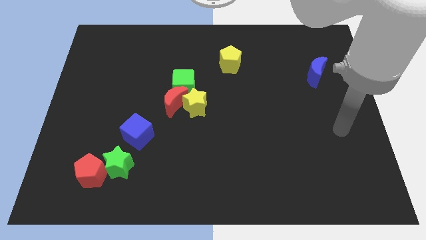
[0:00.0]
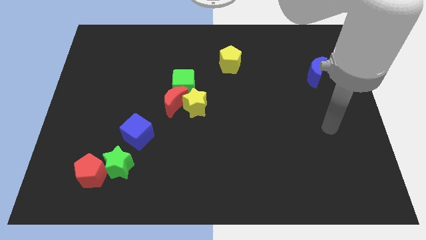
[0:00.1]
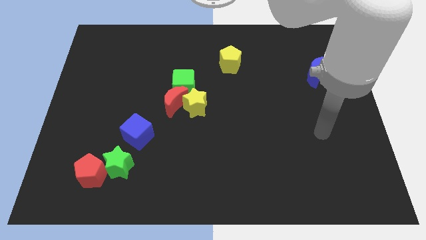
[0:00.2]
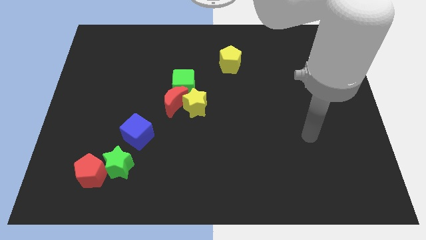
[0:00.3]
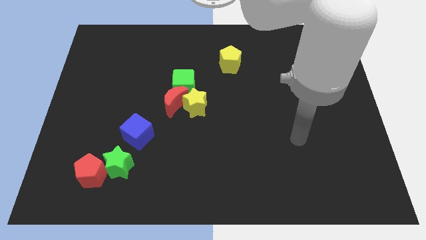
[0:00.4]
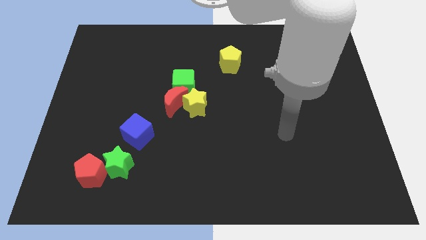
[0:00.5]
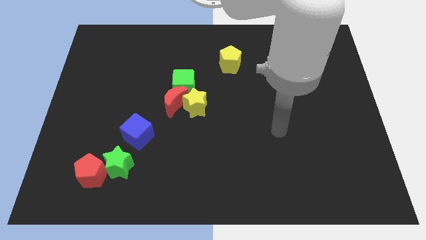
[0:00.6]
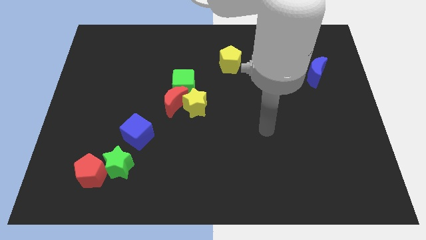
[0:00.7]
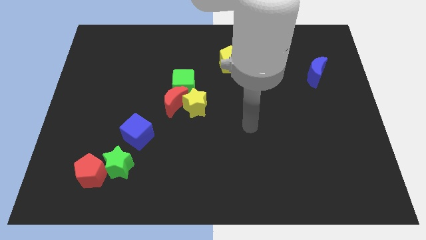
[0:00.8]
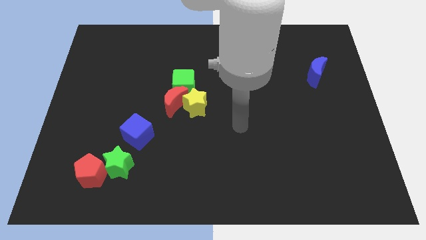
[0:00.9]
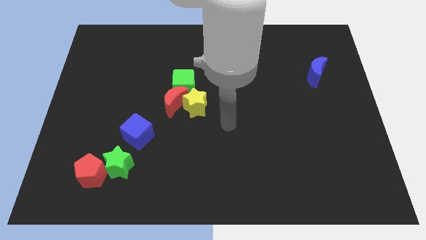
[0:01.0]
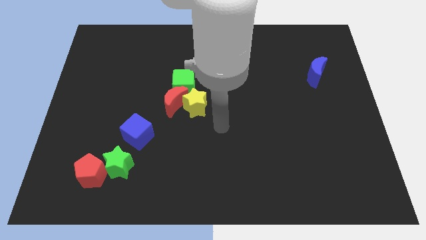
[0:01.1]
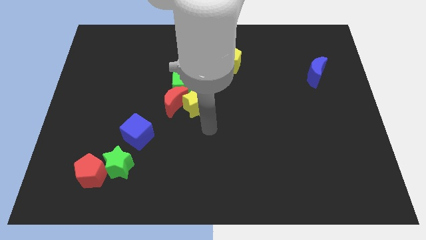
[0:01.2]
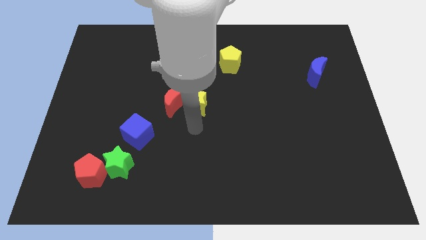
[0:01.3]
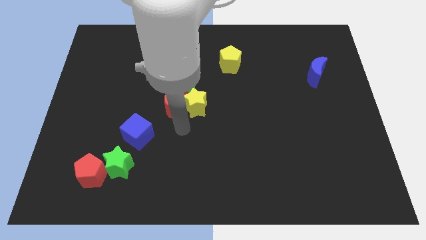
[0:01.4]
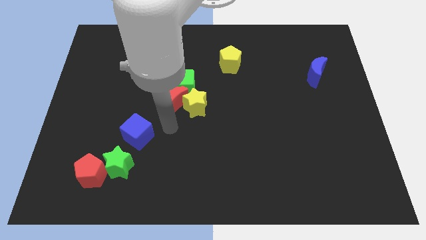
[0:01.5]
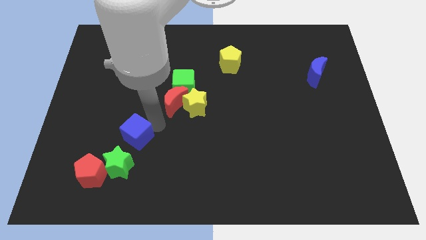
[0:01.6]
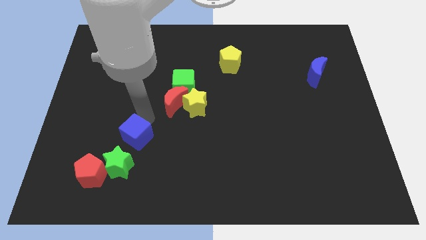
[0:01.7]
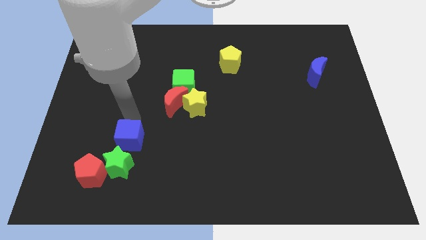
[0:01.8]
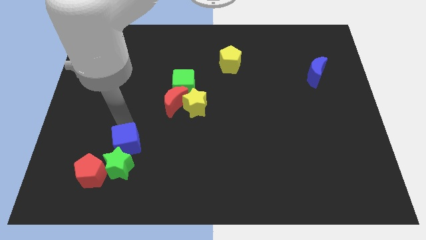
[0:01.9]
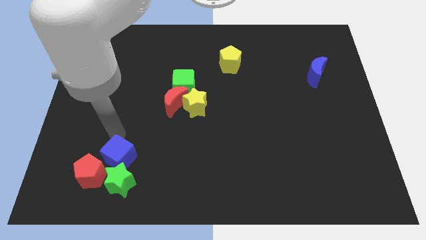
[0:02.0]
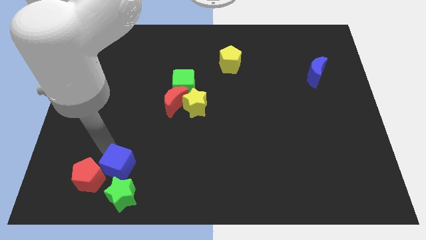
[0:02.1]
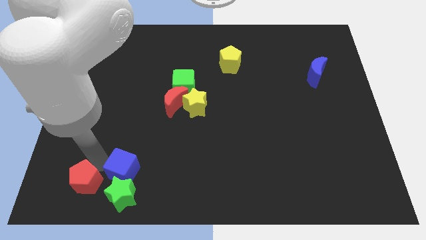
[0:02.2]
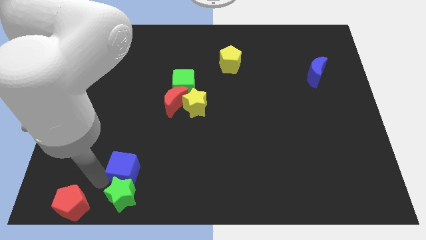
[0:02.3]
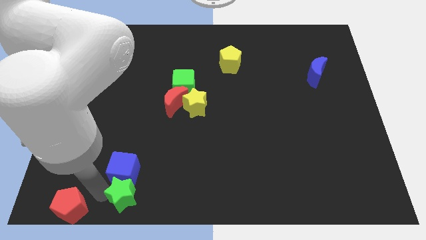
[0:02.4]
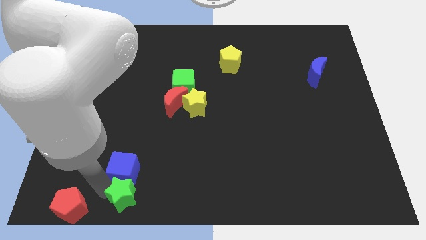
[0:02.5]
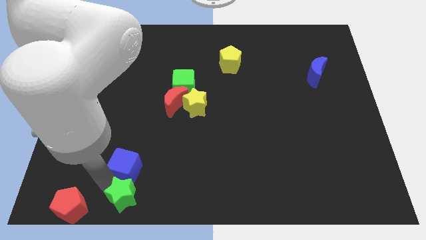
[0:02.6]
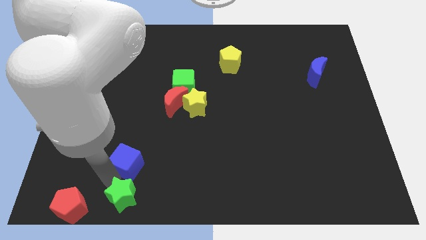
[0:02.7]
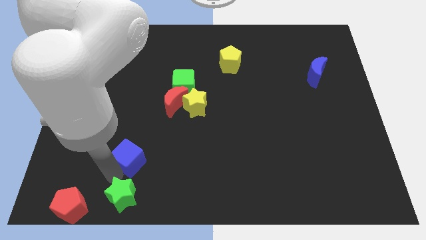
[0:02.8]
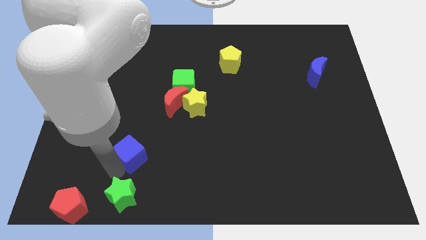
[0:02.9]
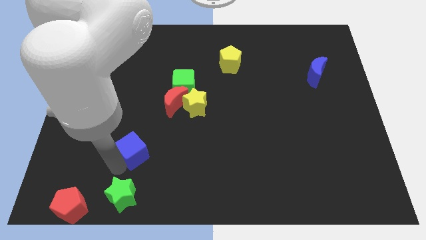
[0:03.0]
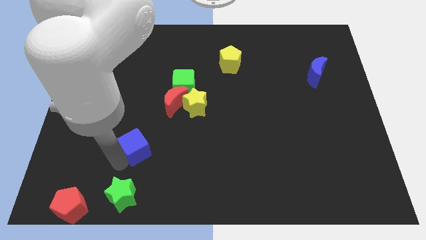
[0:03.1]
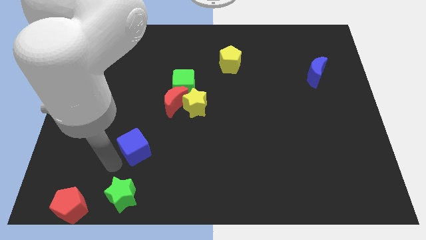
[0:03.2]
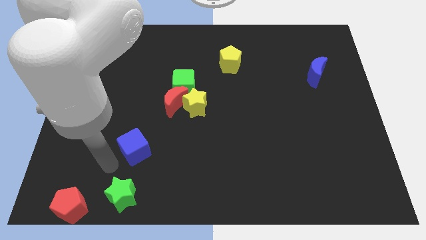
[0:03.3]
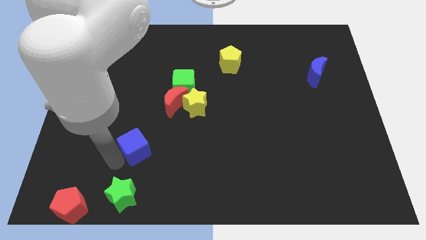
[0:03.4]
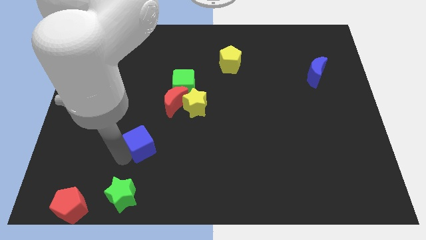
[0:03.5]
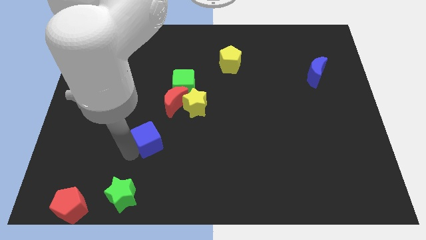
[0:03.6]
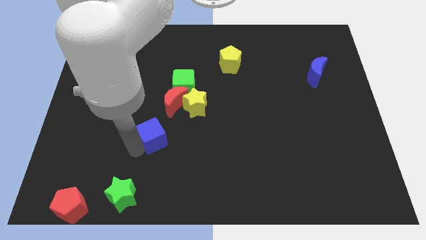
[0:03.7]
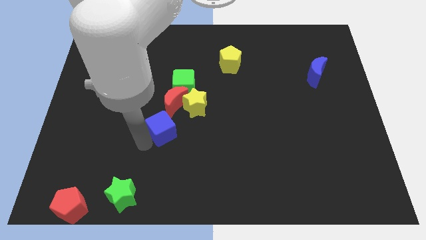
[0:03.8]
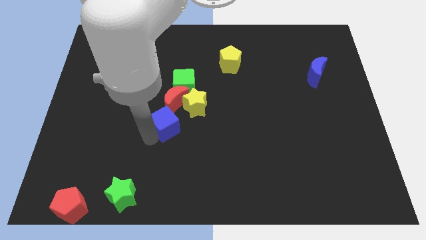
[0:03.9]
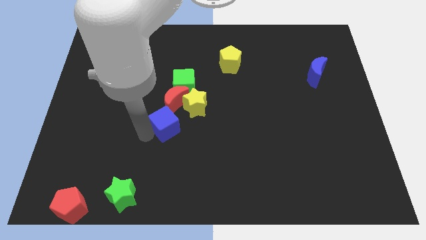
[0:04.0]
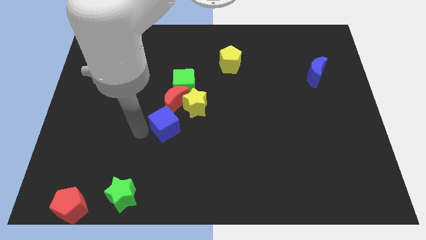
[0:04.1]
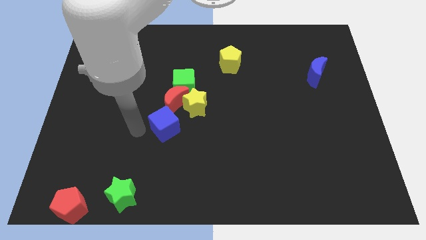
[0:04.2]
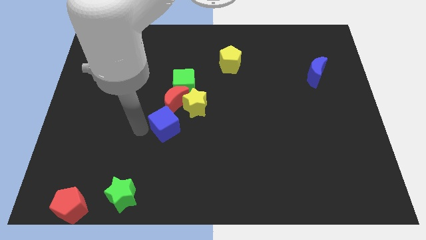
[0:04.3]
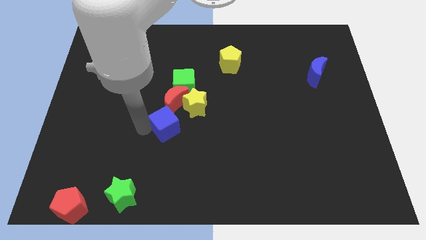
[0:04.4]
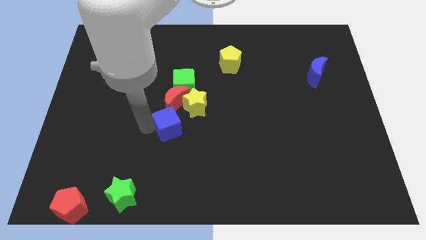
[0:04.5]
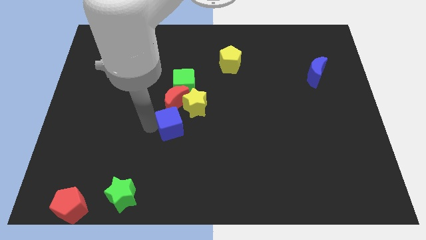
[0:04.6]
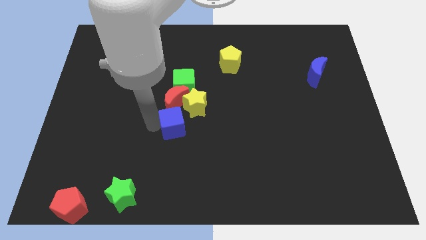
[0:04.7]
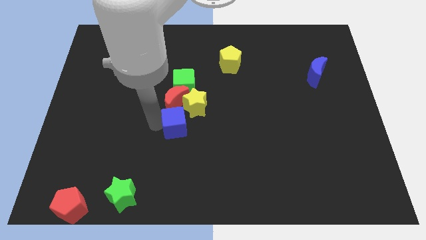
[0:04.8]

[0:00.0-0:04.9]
slightly push the blue cube up and right

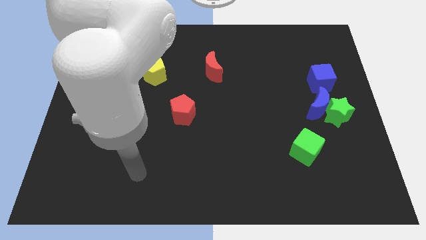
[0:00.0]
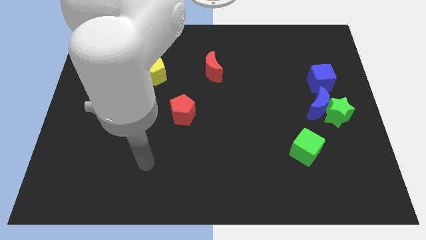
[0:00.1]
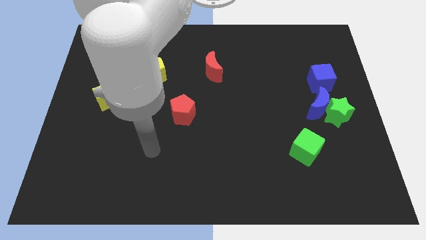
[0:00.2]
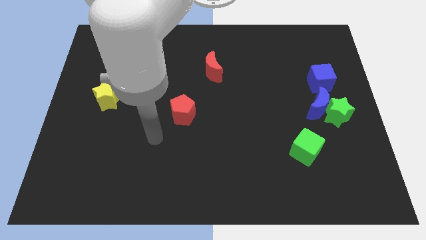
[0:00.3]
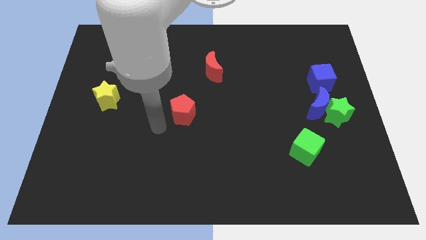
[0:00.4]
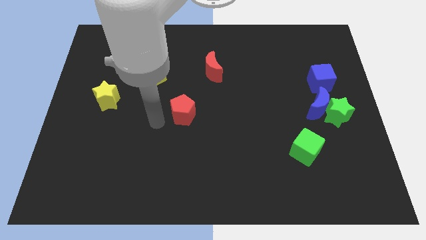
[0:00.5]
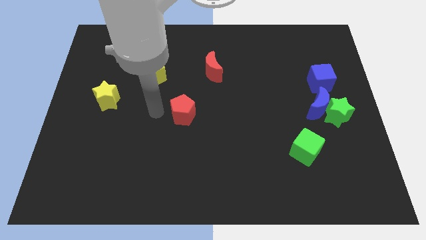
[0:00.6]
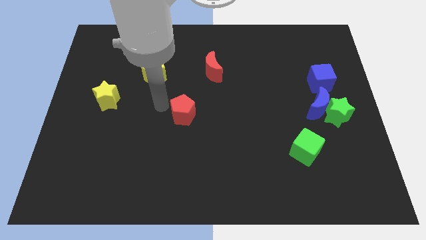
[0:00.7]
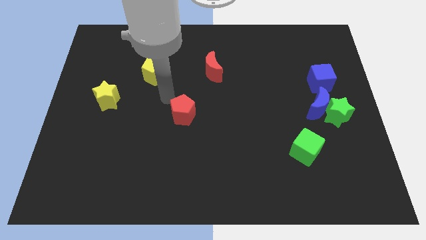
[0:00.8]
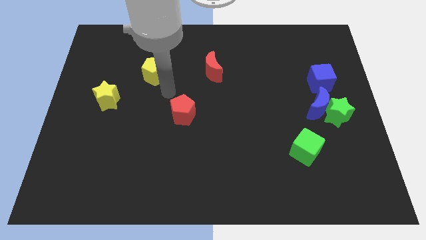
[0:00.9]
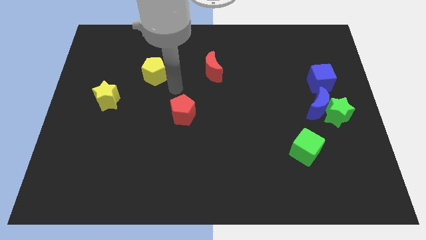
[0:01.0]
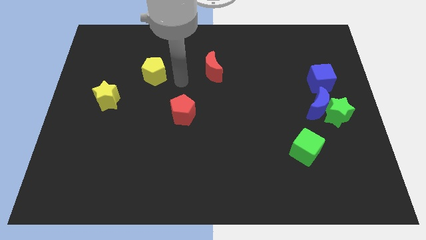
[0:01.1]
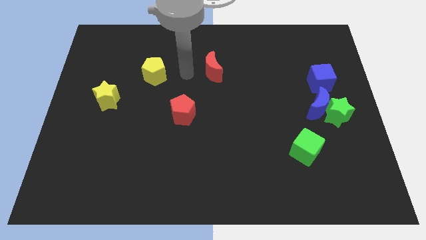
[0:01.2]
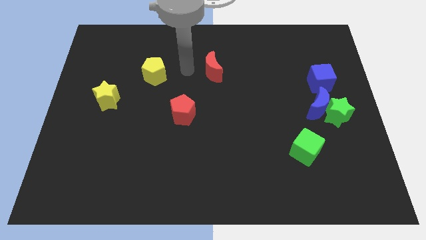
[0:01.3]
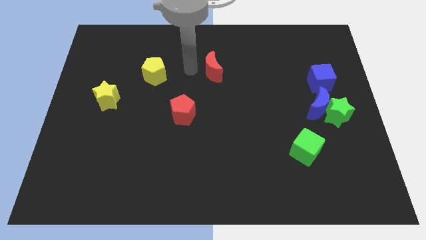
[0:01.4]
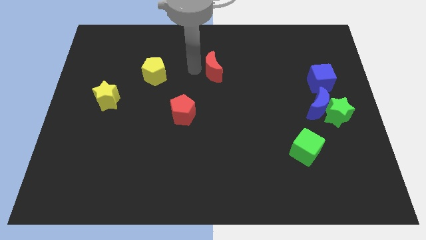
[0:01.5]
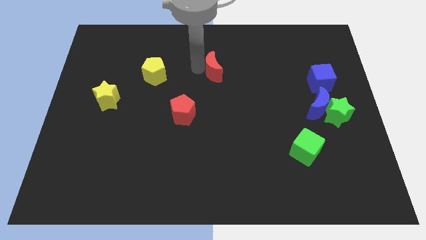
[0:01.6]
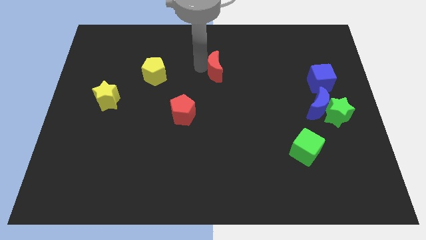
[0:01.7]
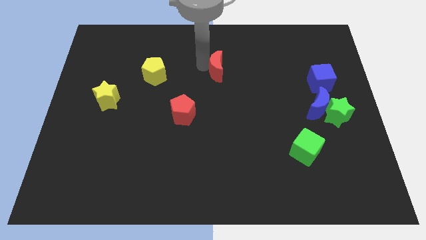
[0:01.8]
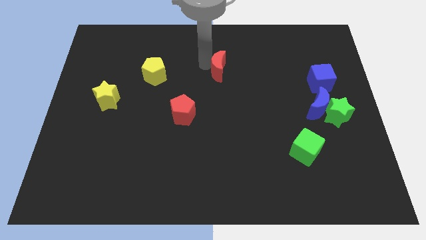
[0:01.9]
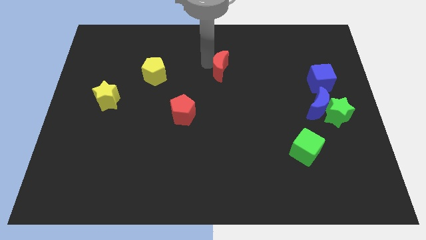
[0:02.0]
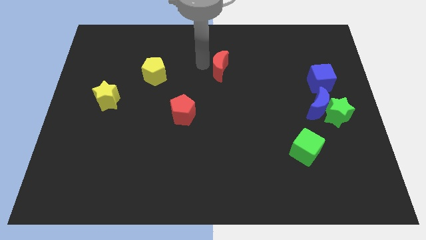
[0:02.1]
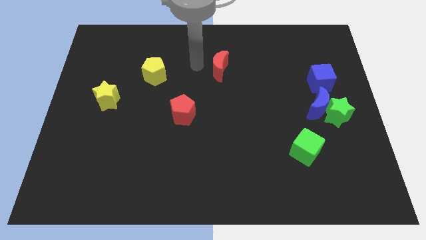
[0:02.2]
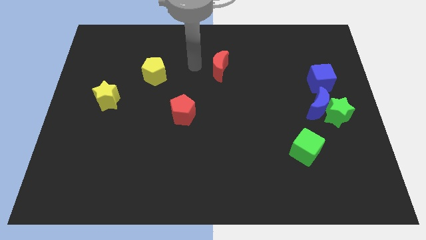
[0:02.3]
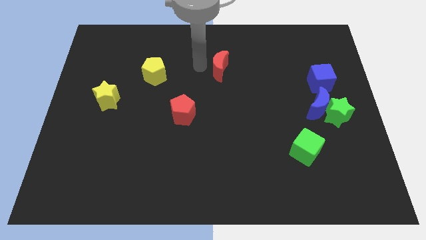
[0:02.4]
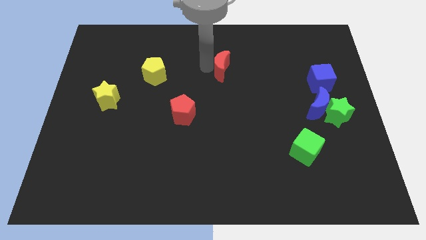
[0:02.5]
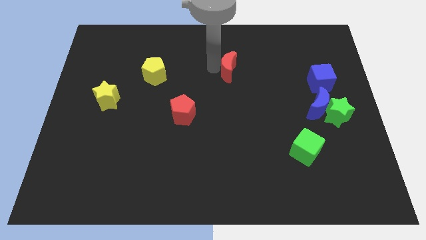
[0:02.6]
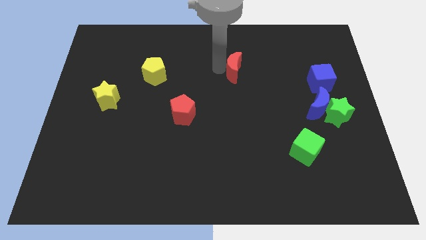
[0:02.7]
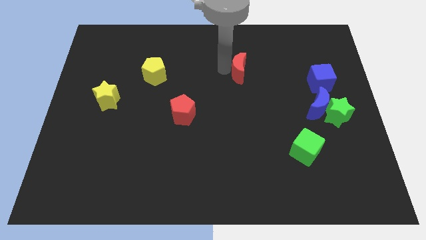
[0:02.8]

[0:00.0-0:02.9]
move the red moon right somewhat

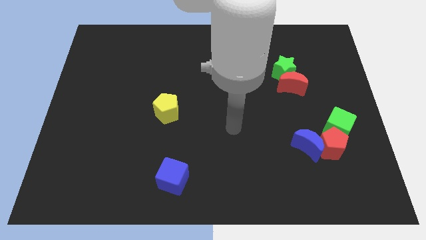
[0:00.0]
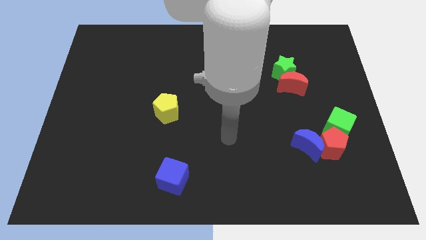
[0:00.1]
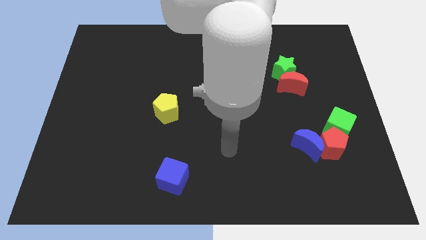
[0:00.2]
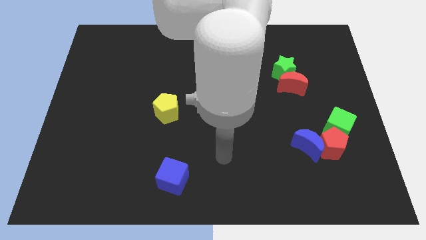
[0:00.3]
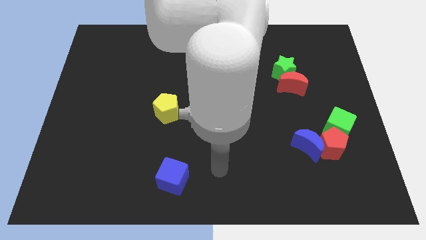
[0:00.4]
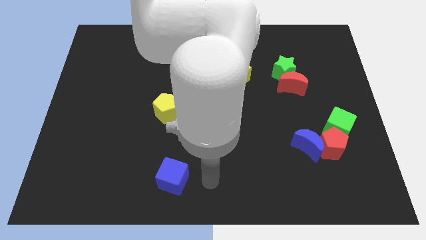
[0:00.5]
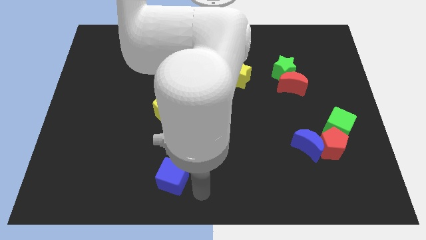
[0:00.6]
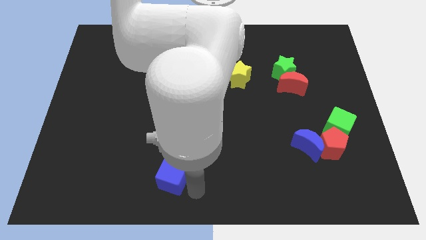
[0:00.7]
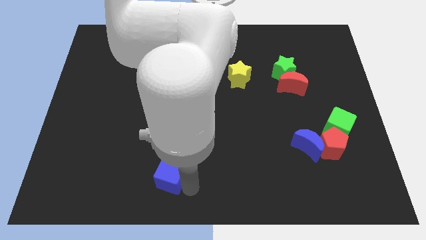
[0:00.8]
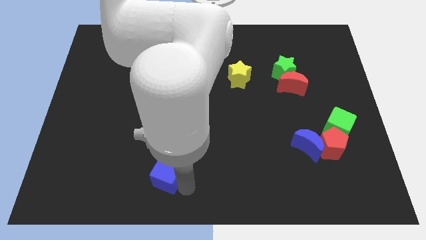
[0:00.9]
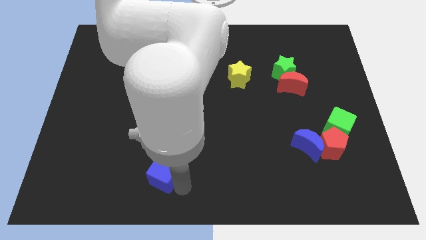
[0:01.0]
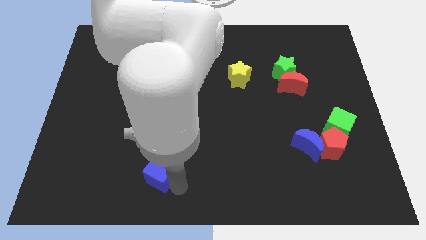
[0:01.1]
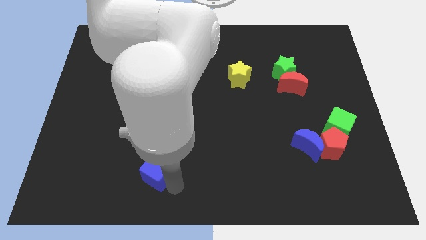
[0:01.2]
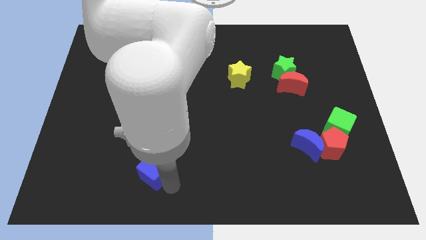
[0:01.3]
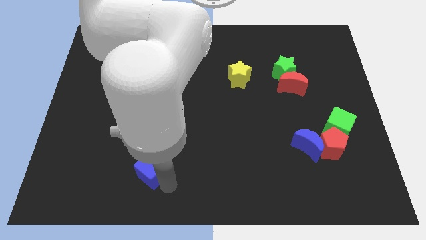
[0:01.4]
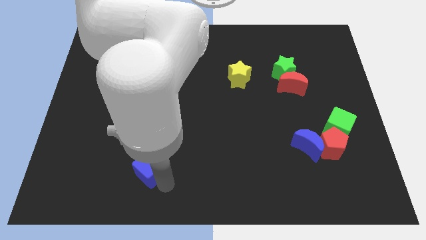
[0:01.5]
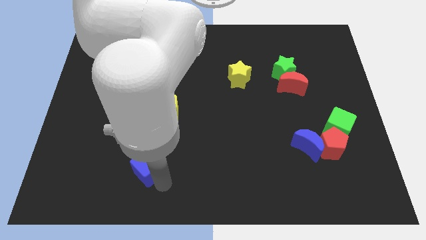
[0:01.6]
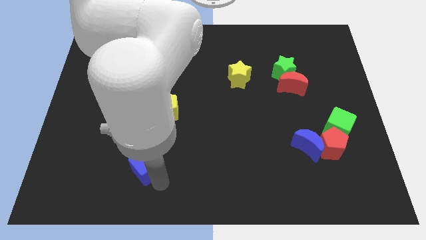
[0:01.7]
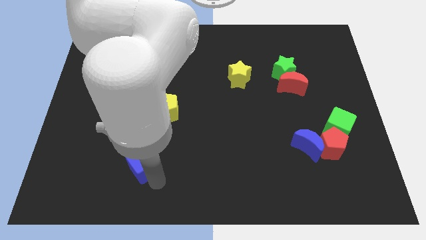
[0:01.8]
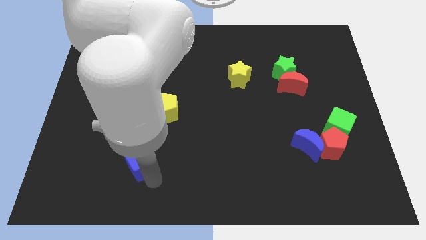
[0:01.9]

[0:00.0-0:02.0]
slide the blue cube up and left diagonally somewhat
